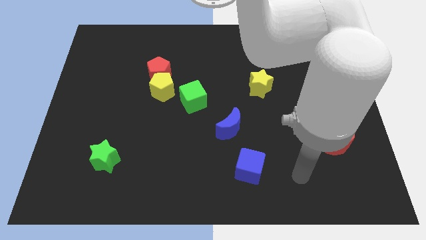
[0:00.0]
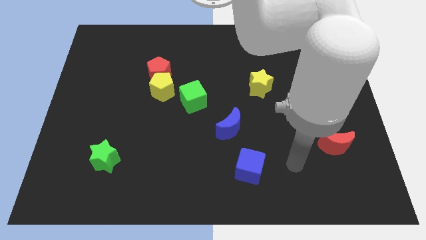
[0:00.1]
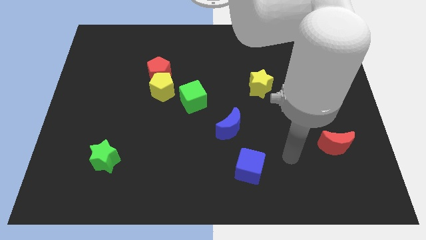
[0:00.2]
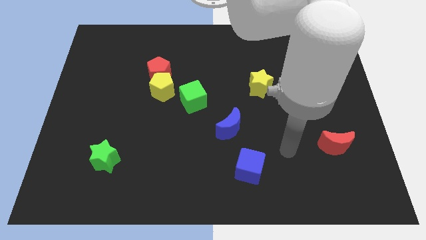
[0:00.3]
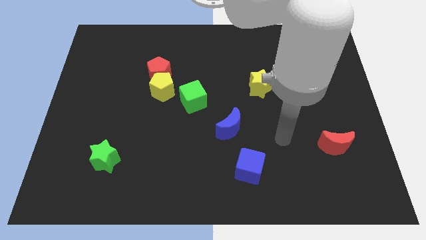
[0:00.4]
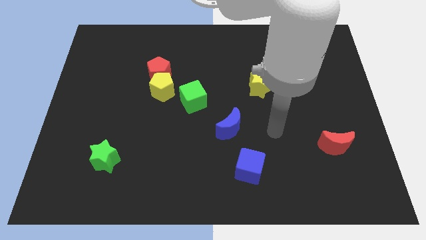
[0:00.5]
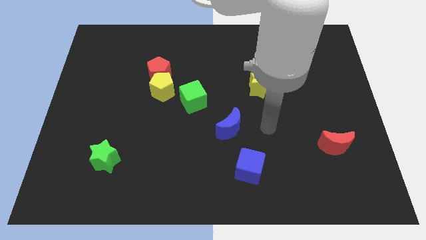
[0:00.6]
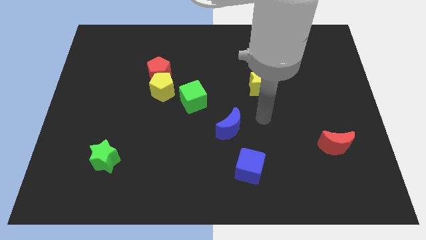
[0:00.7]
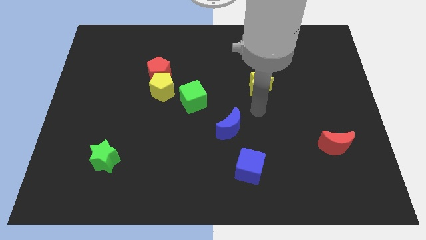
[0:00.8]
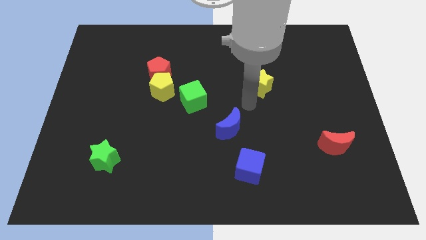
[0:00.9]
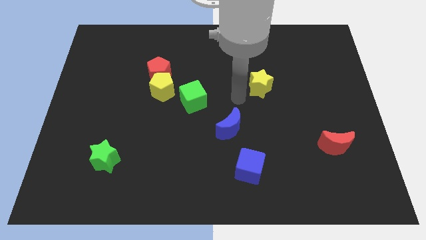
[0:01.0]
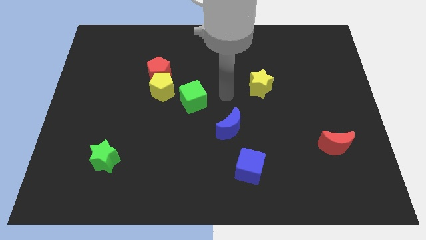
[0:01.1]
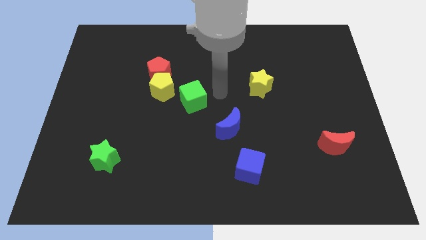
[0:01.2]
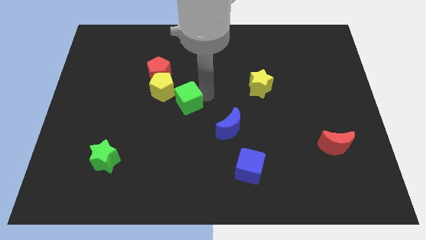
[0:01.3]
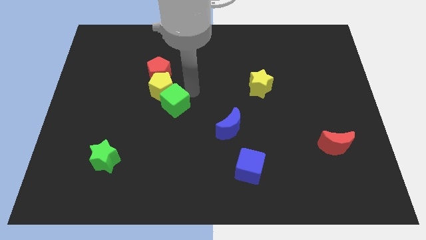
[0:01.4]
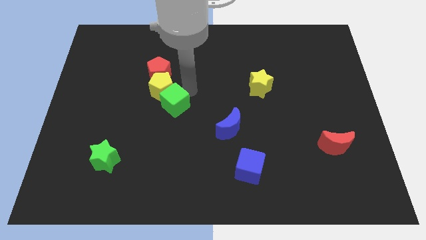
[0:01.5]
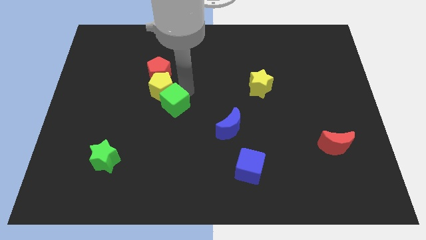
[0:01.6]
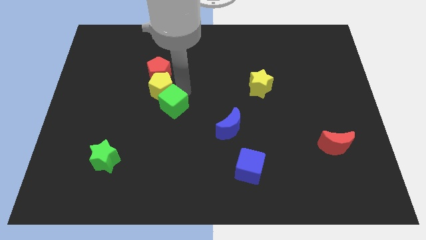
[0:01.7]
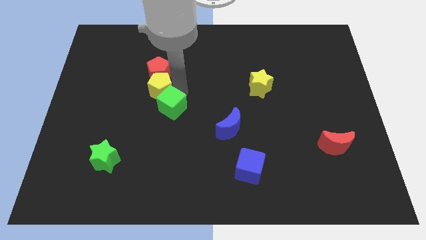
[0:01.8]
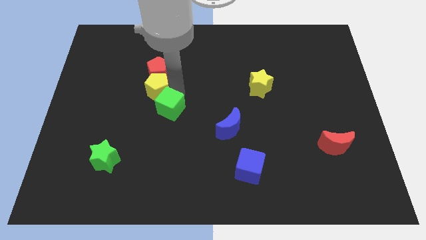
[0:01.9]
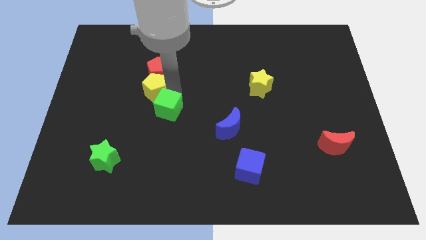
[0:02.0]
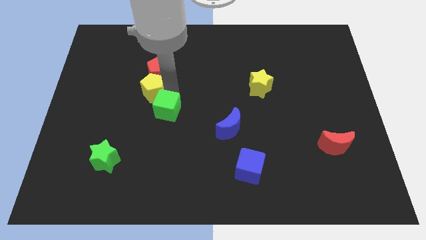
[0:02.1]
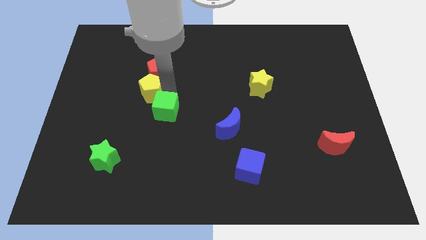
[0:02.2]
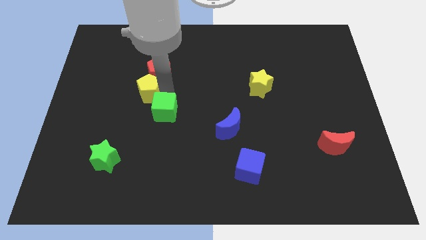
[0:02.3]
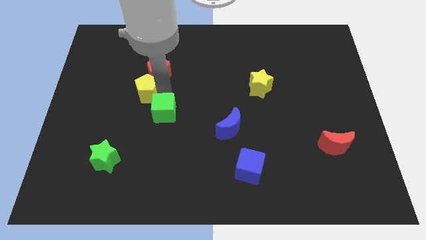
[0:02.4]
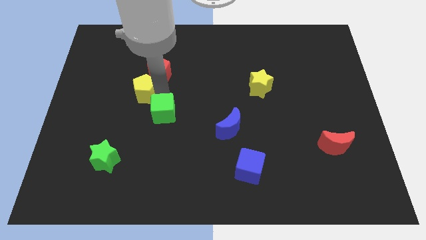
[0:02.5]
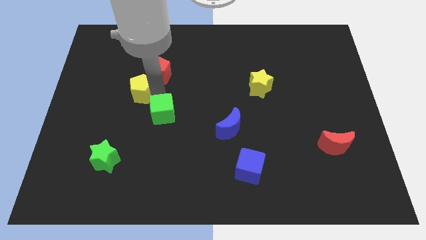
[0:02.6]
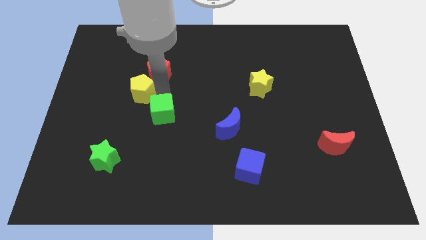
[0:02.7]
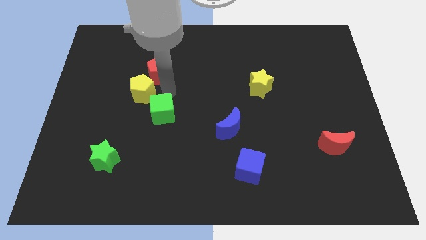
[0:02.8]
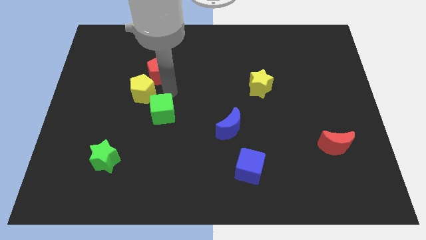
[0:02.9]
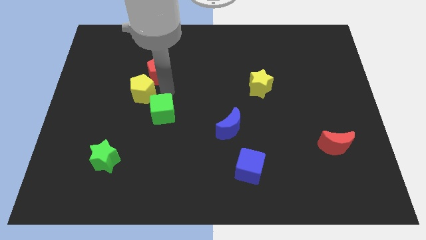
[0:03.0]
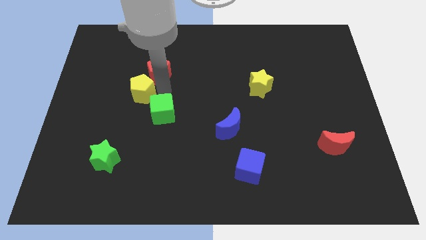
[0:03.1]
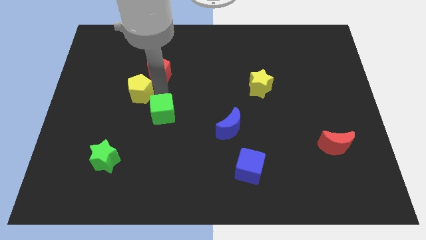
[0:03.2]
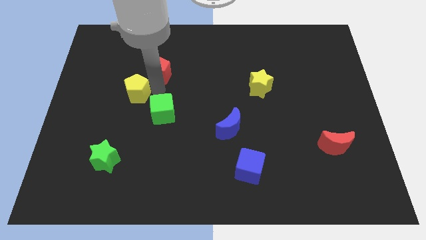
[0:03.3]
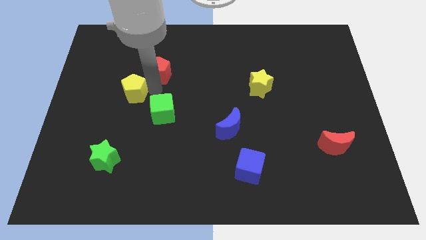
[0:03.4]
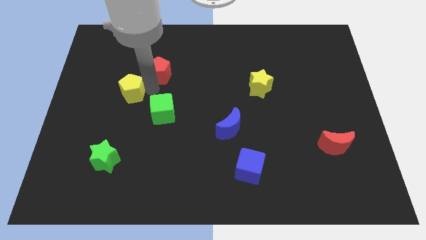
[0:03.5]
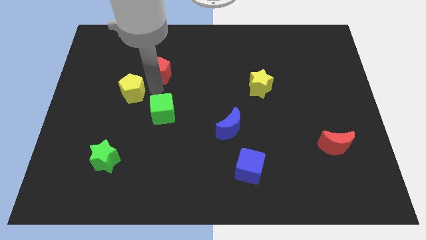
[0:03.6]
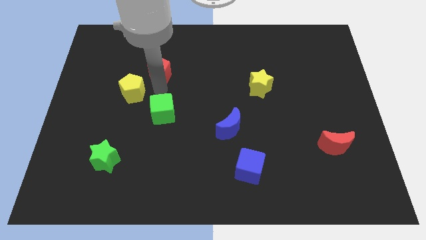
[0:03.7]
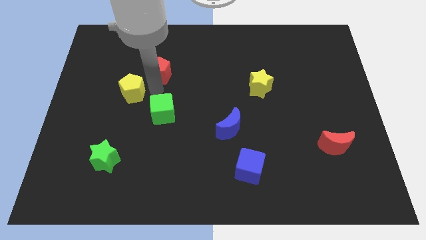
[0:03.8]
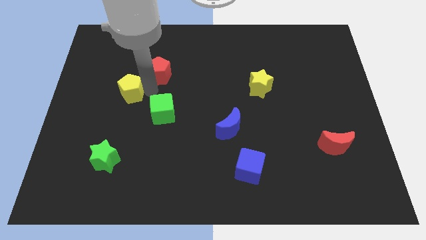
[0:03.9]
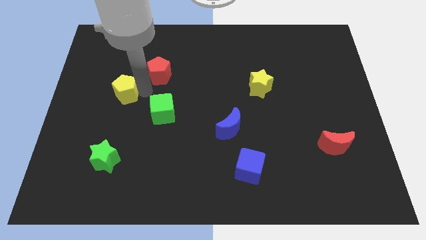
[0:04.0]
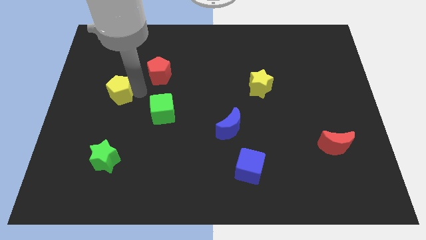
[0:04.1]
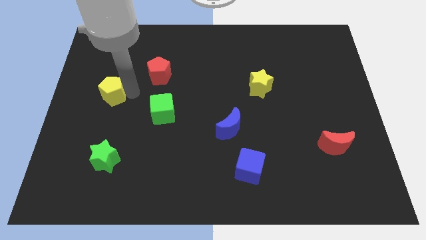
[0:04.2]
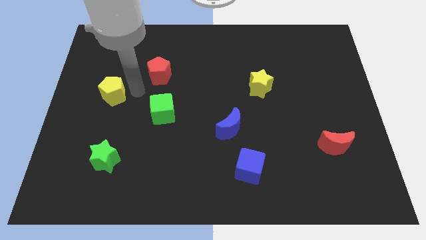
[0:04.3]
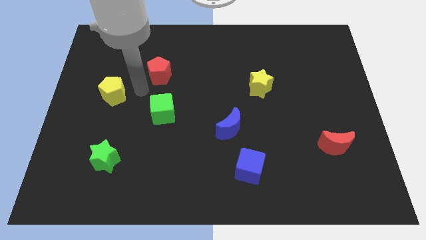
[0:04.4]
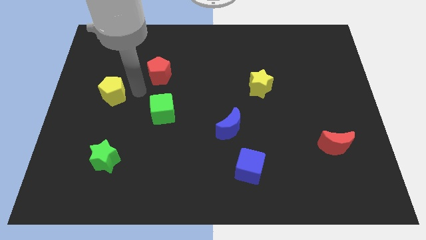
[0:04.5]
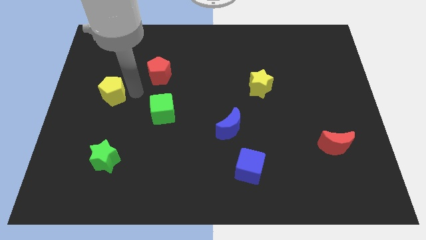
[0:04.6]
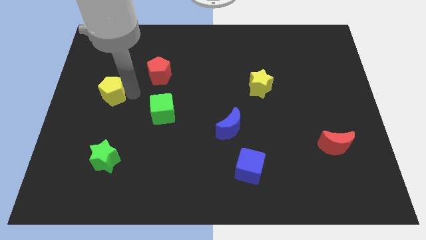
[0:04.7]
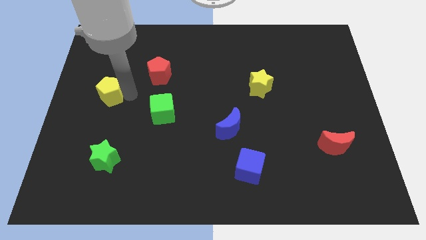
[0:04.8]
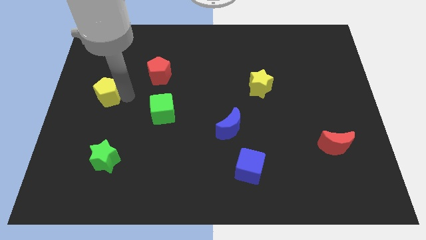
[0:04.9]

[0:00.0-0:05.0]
put the yellow pentagon to the center left
